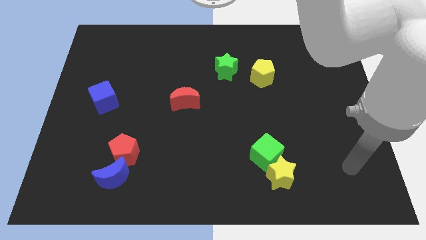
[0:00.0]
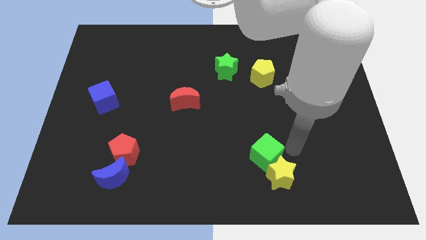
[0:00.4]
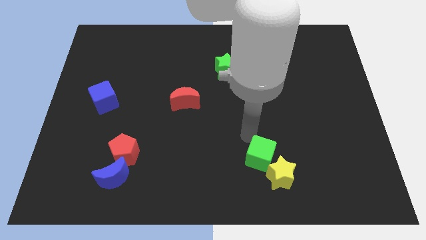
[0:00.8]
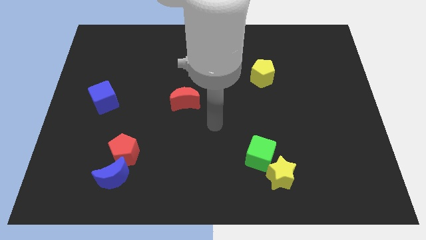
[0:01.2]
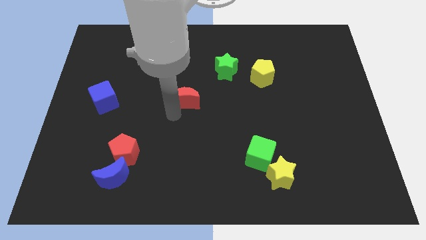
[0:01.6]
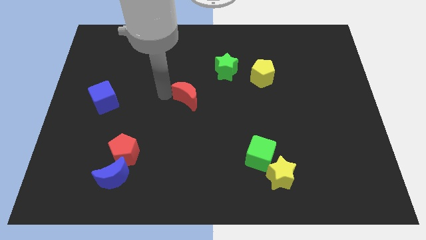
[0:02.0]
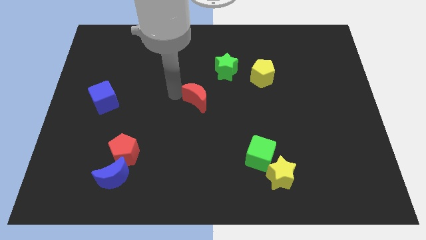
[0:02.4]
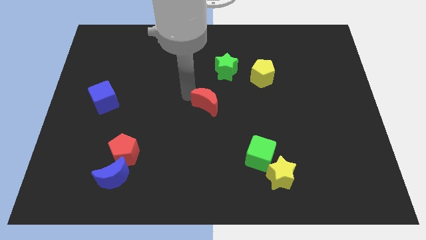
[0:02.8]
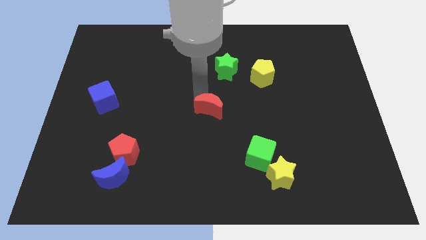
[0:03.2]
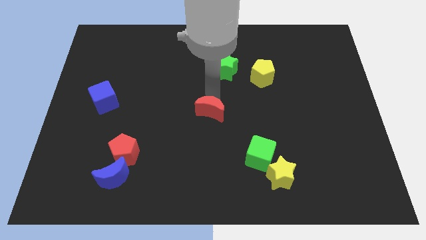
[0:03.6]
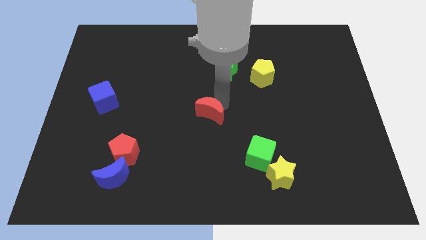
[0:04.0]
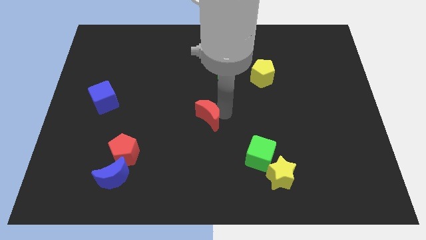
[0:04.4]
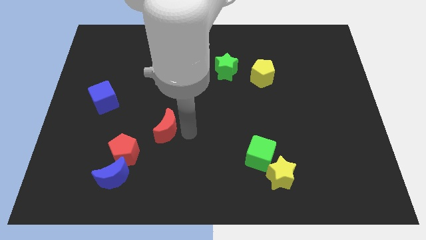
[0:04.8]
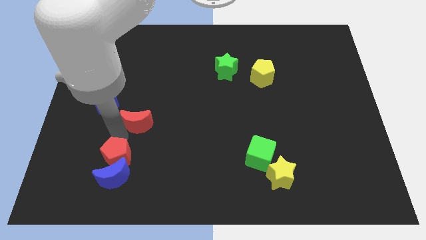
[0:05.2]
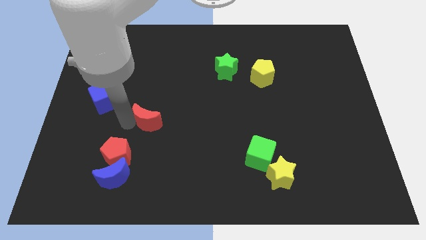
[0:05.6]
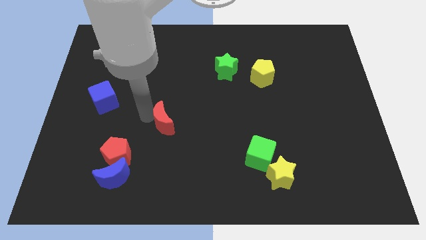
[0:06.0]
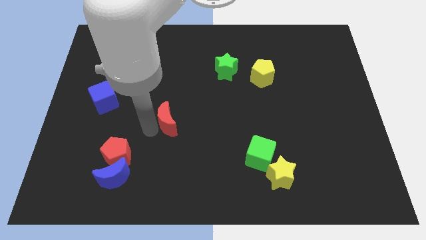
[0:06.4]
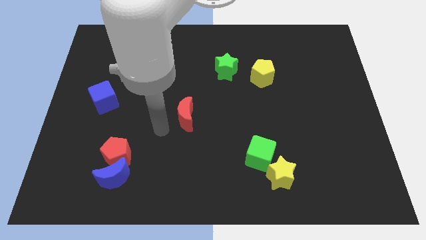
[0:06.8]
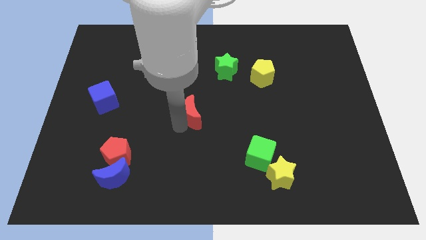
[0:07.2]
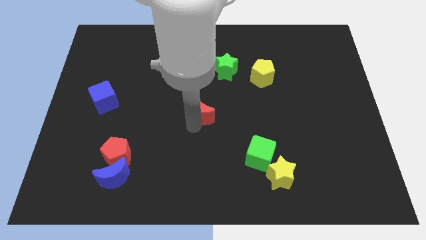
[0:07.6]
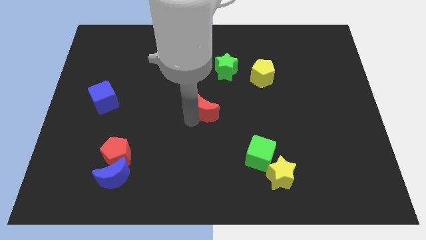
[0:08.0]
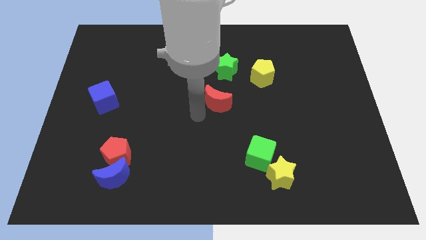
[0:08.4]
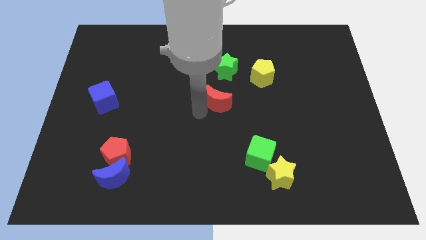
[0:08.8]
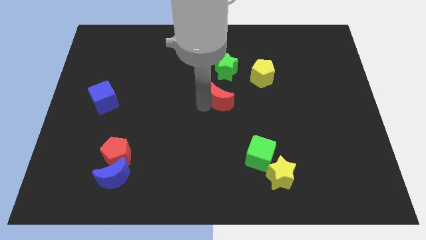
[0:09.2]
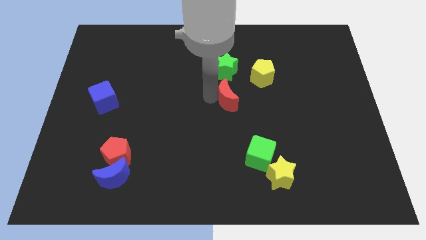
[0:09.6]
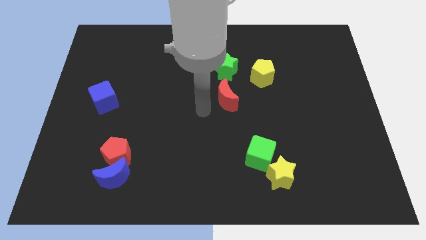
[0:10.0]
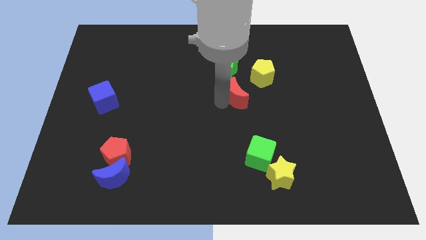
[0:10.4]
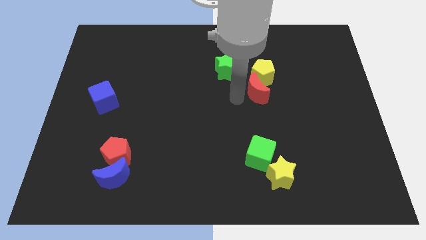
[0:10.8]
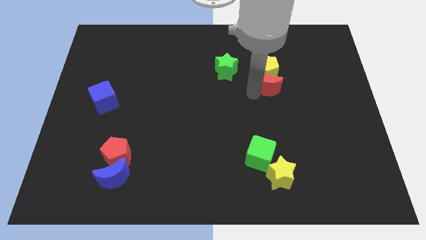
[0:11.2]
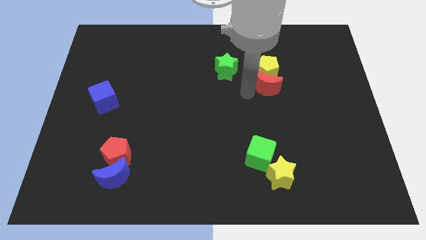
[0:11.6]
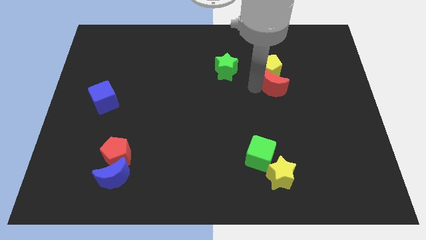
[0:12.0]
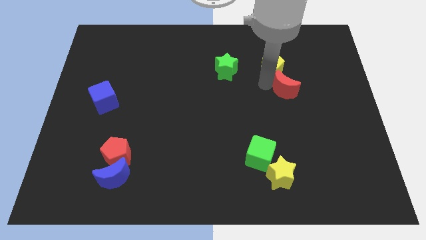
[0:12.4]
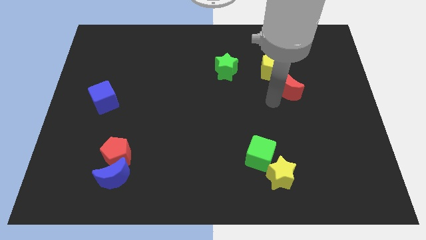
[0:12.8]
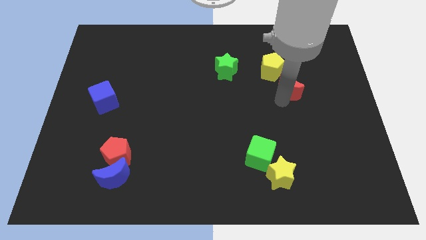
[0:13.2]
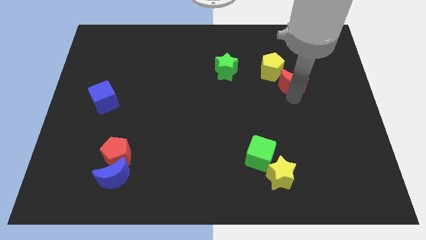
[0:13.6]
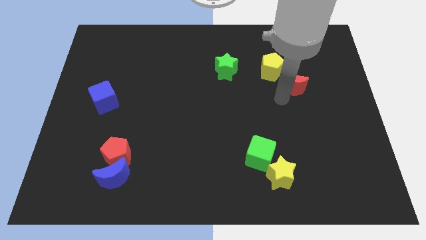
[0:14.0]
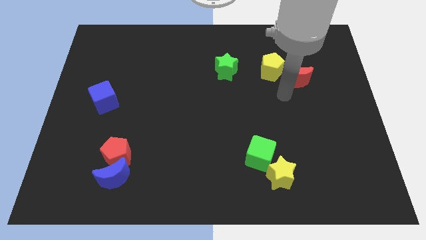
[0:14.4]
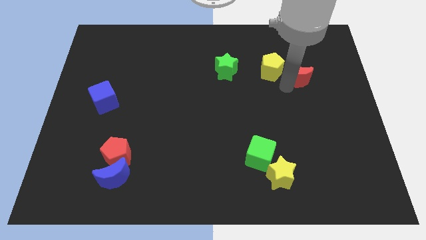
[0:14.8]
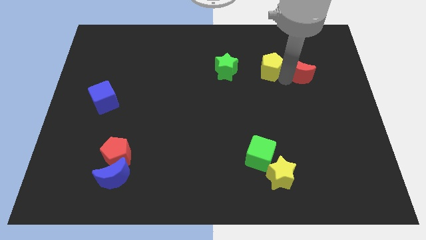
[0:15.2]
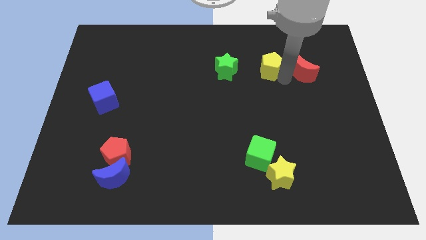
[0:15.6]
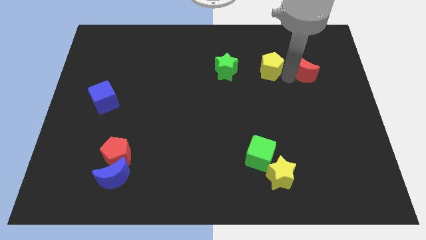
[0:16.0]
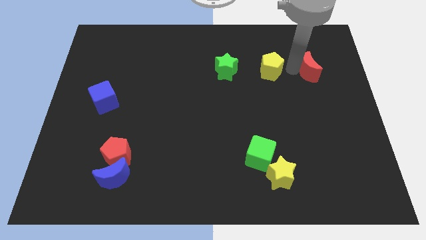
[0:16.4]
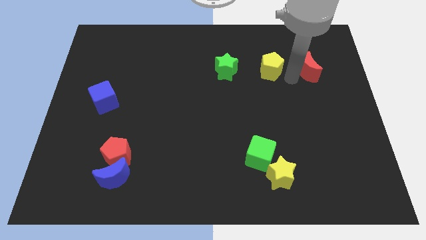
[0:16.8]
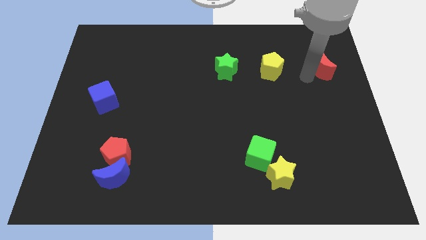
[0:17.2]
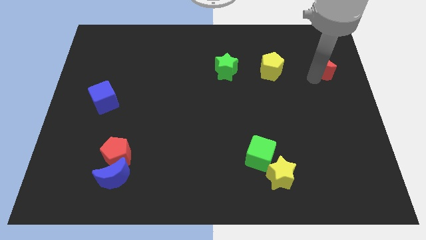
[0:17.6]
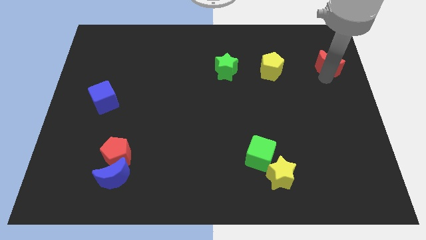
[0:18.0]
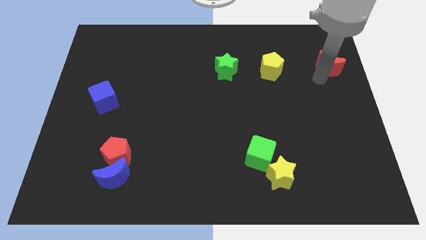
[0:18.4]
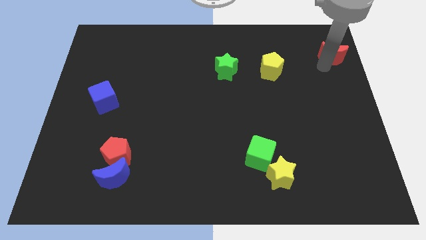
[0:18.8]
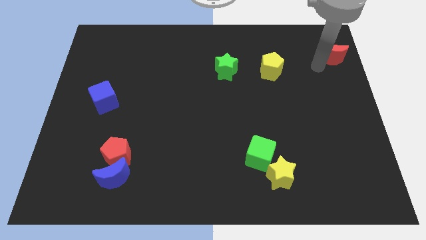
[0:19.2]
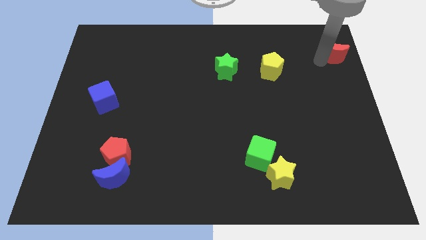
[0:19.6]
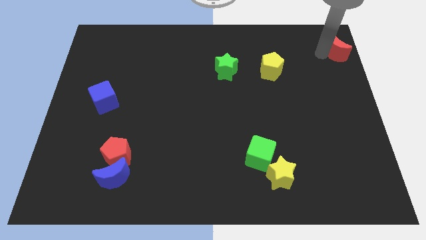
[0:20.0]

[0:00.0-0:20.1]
put the red moon to the upper right corner

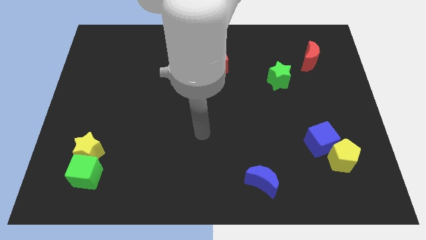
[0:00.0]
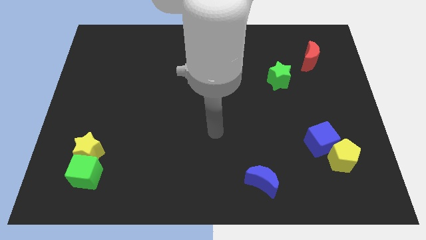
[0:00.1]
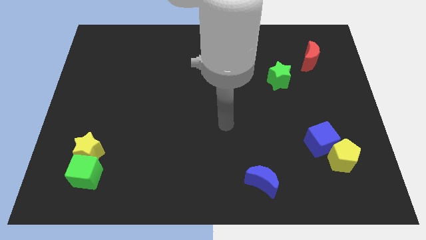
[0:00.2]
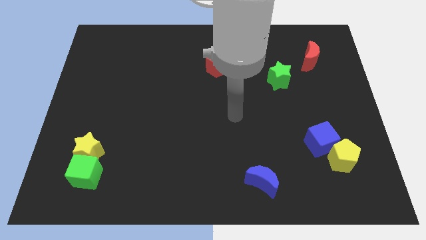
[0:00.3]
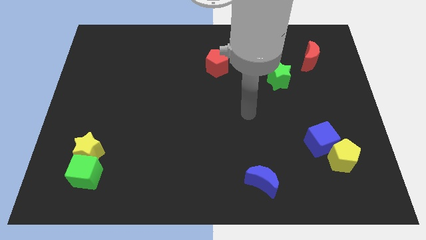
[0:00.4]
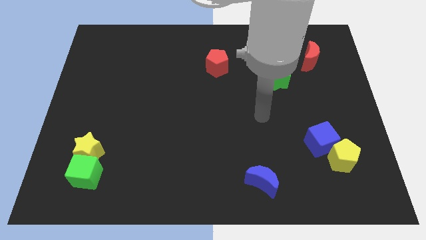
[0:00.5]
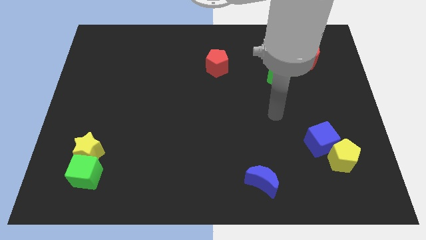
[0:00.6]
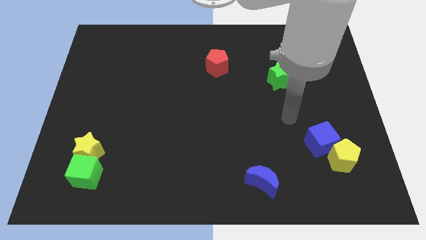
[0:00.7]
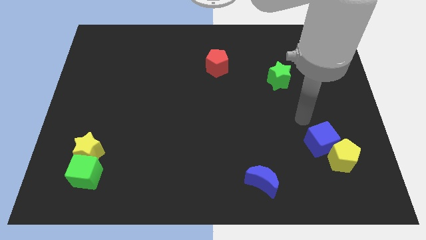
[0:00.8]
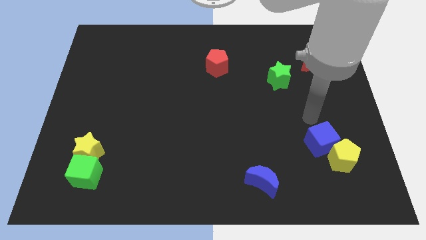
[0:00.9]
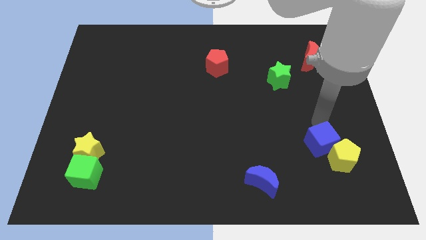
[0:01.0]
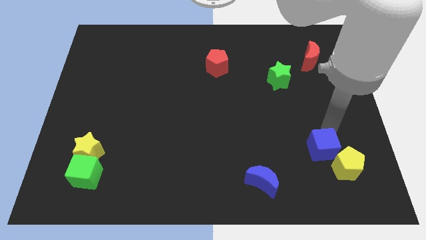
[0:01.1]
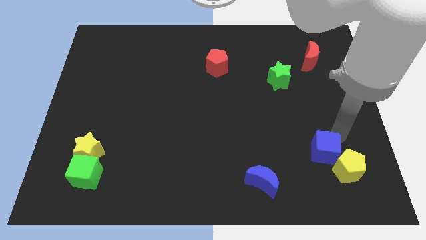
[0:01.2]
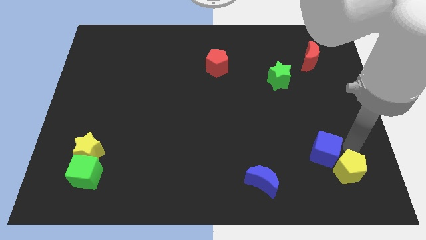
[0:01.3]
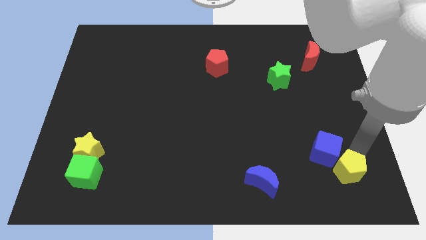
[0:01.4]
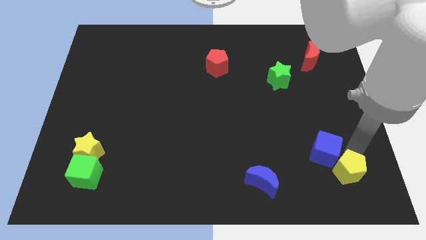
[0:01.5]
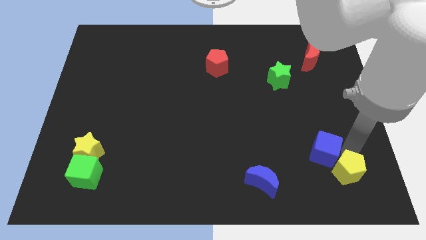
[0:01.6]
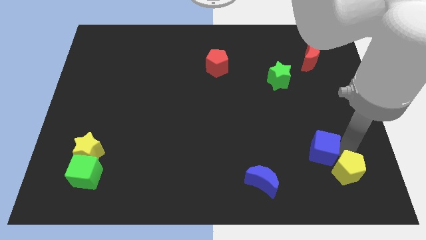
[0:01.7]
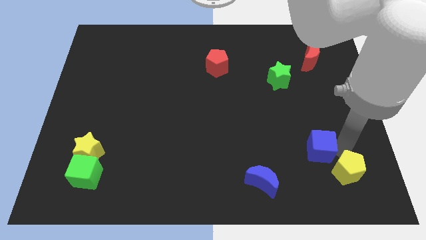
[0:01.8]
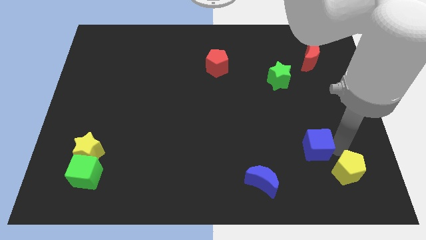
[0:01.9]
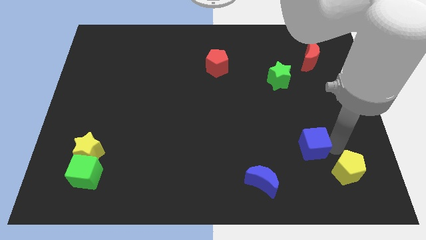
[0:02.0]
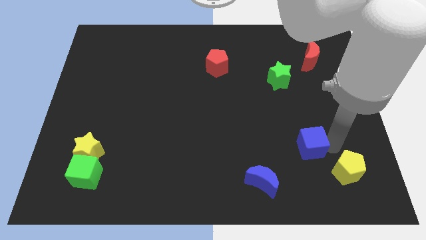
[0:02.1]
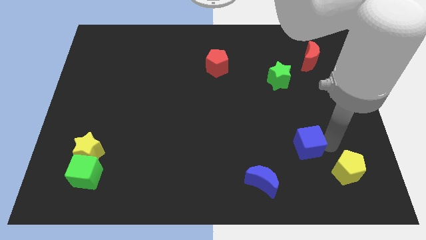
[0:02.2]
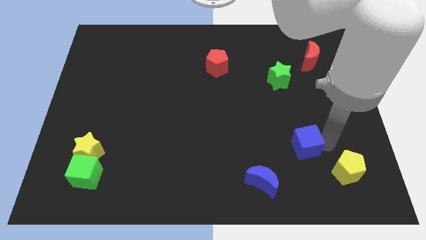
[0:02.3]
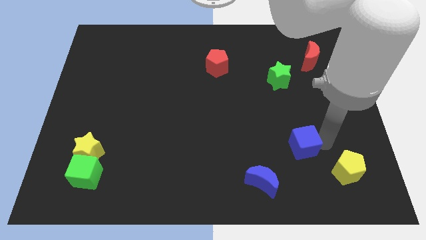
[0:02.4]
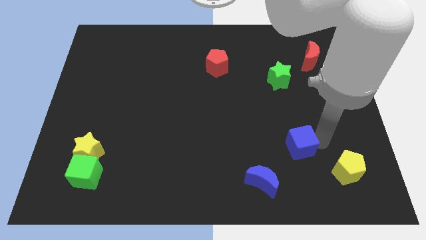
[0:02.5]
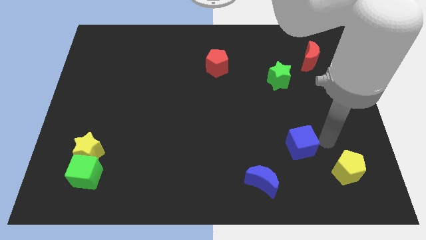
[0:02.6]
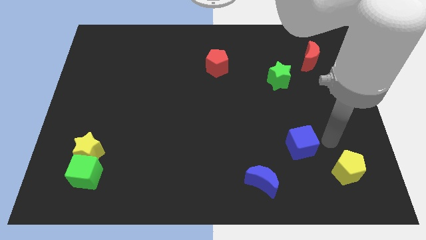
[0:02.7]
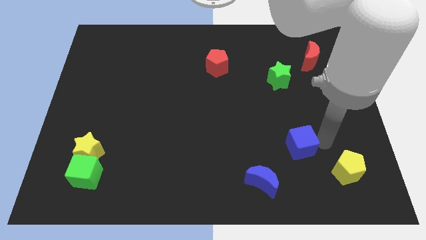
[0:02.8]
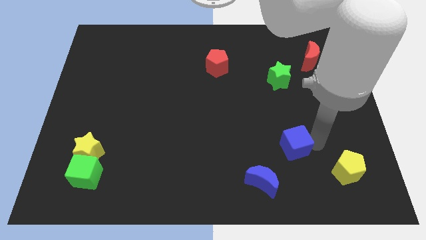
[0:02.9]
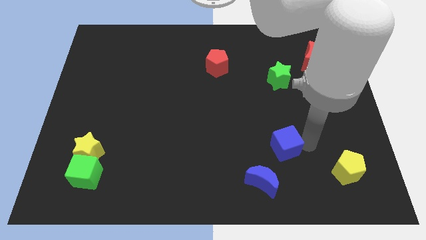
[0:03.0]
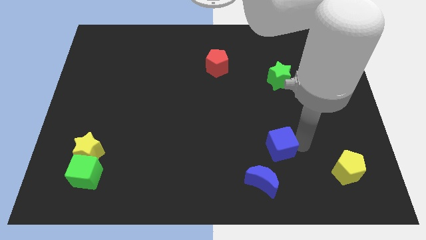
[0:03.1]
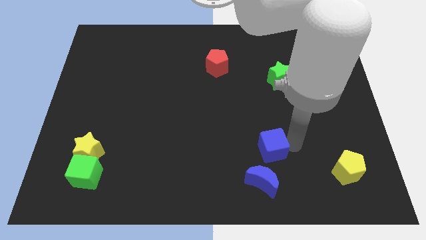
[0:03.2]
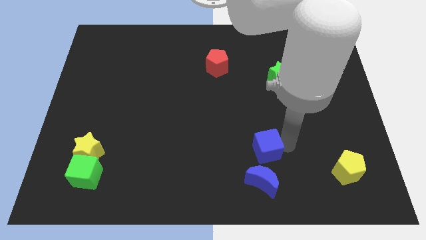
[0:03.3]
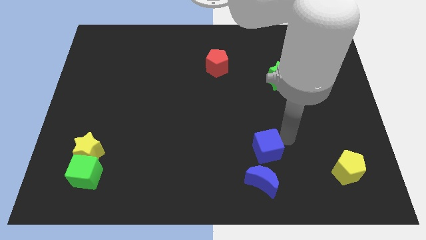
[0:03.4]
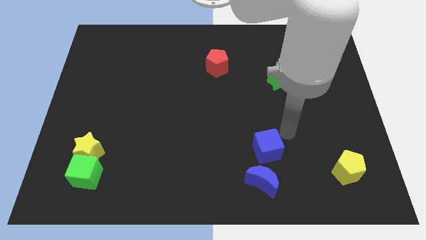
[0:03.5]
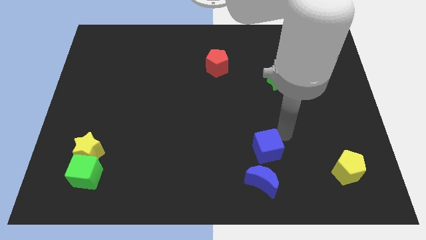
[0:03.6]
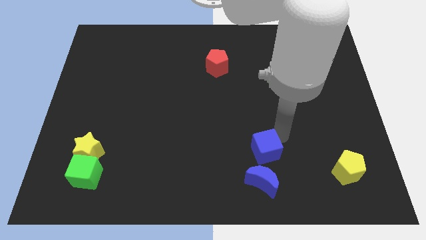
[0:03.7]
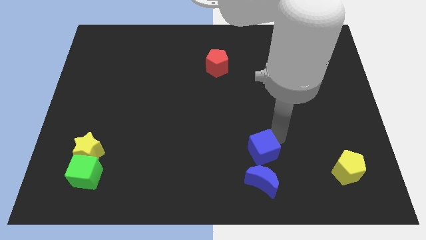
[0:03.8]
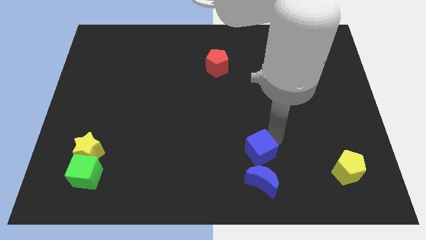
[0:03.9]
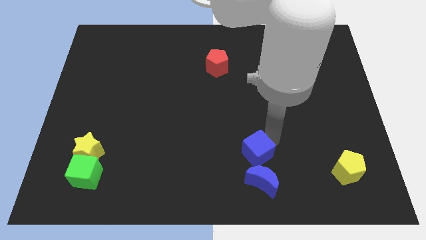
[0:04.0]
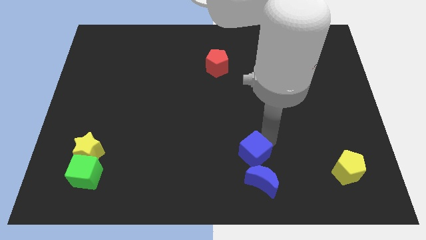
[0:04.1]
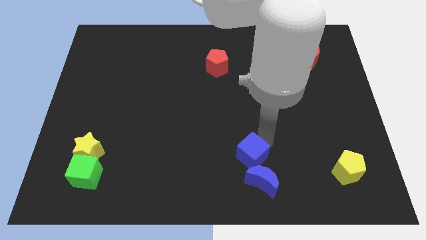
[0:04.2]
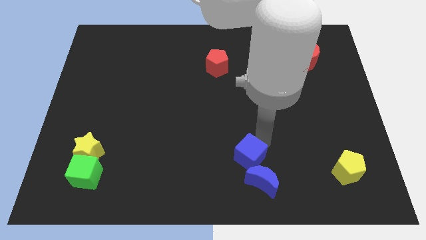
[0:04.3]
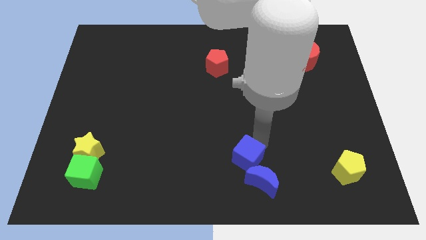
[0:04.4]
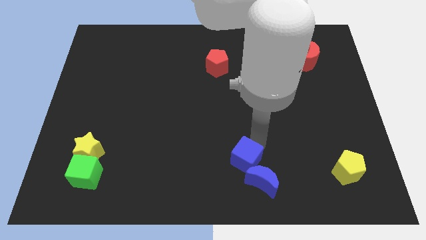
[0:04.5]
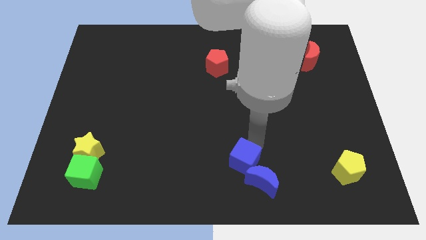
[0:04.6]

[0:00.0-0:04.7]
push the blue cube to the bottom
